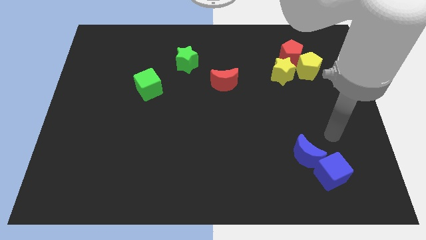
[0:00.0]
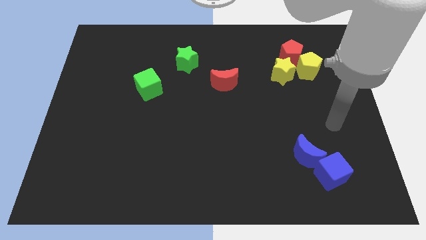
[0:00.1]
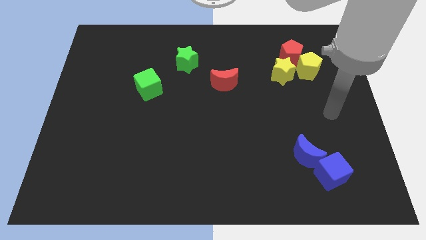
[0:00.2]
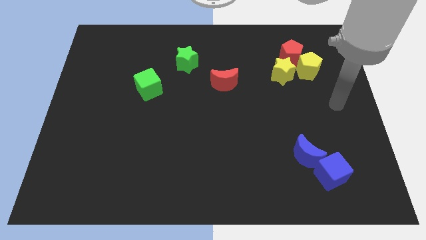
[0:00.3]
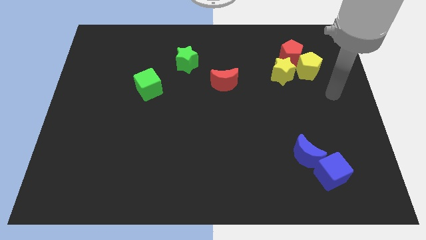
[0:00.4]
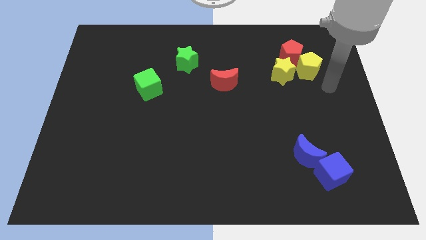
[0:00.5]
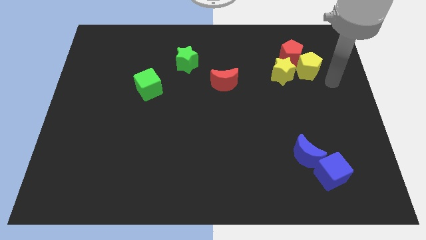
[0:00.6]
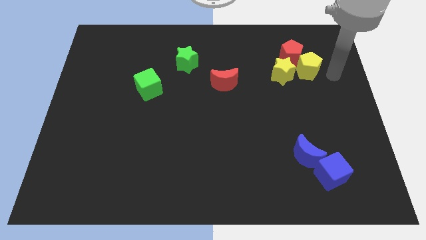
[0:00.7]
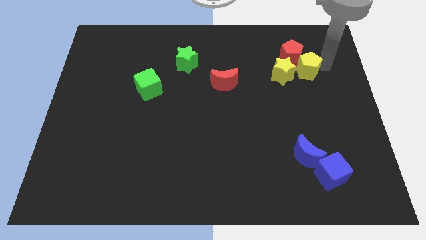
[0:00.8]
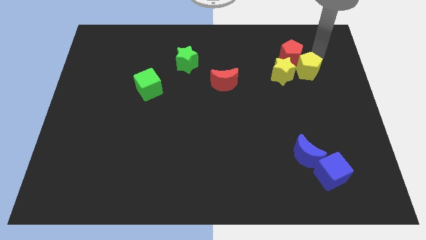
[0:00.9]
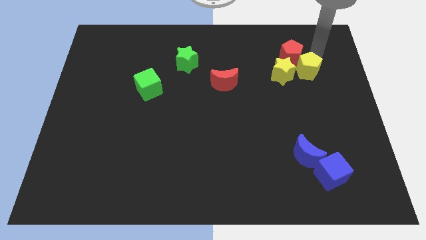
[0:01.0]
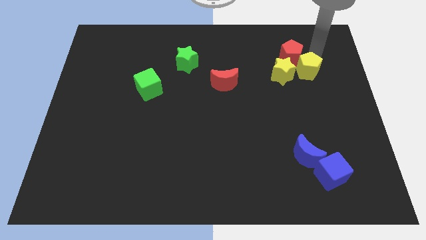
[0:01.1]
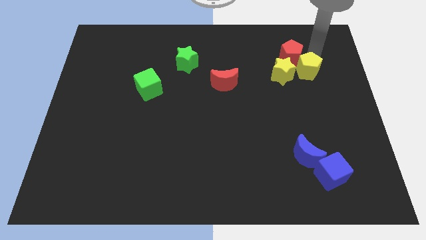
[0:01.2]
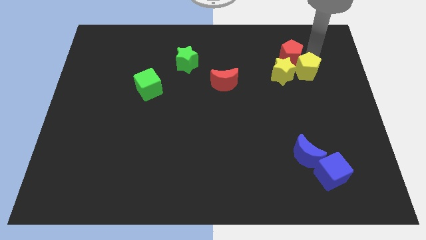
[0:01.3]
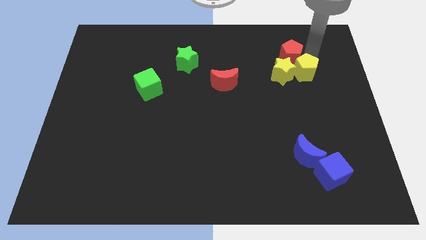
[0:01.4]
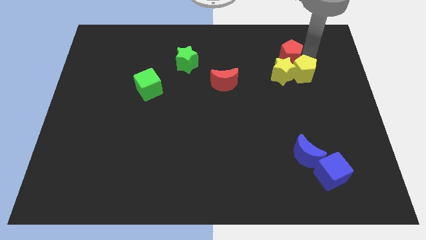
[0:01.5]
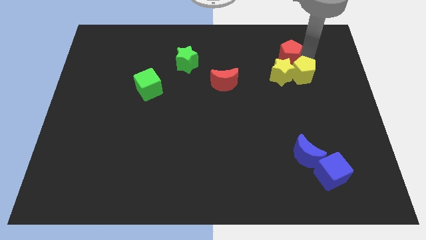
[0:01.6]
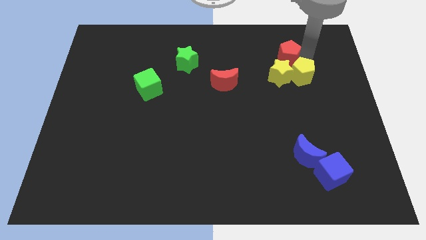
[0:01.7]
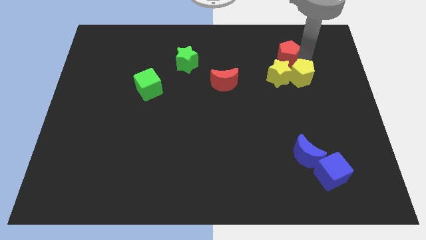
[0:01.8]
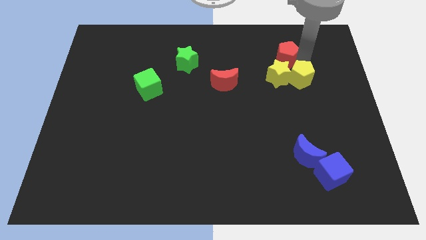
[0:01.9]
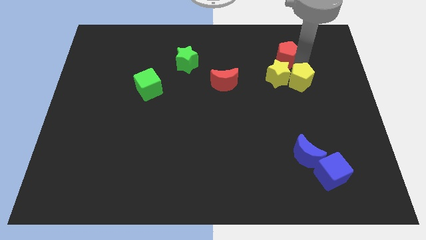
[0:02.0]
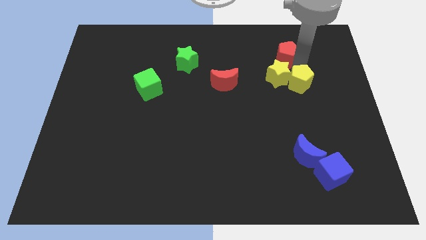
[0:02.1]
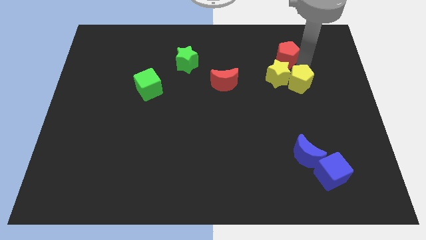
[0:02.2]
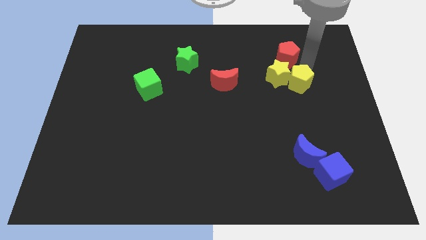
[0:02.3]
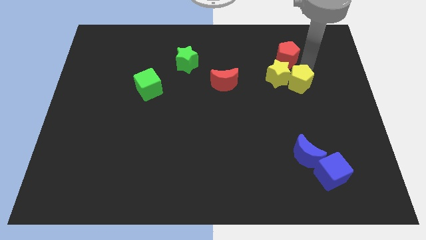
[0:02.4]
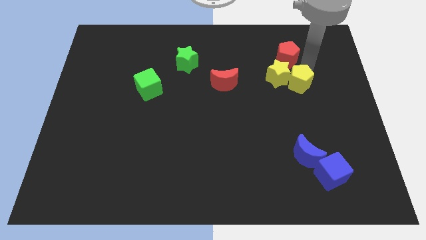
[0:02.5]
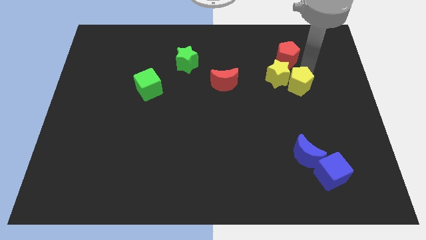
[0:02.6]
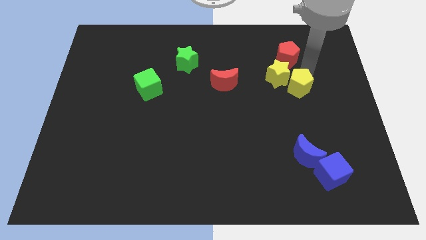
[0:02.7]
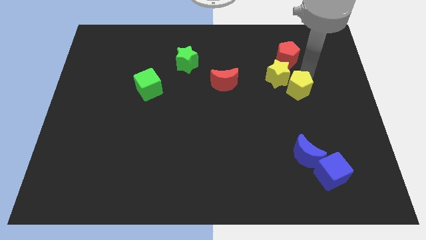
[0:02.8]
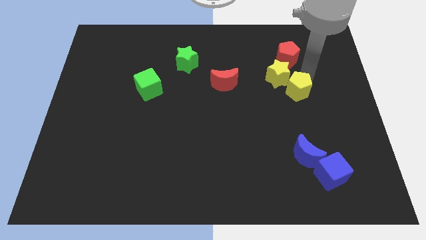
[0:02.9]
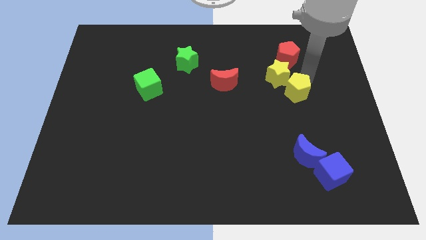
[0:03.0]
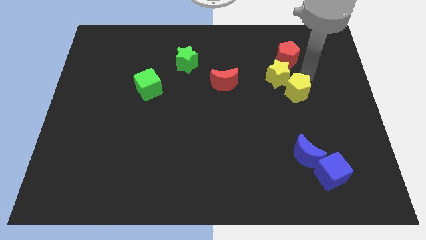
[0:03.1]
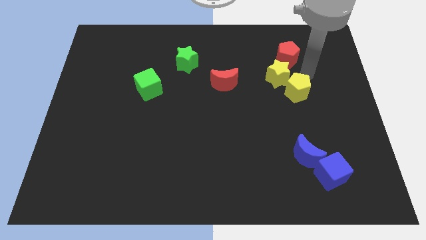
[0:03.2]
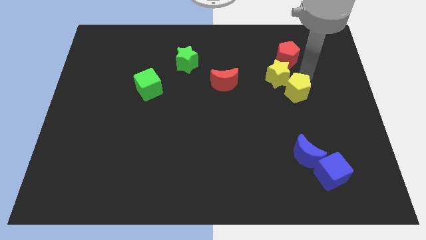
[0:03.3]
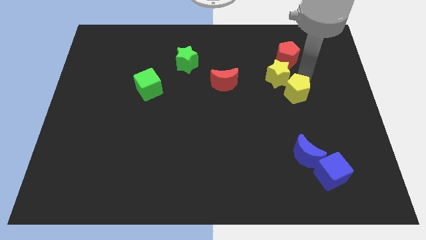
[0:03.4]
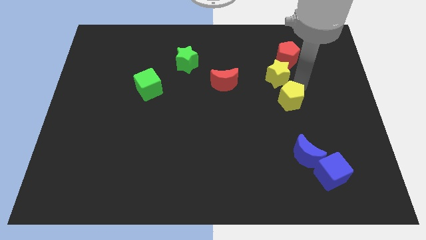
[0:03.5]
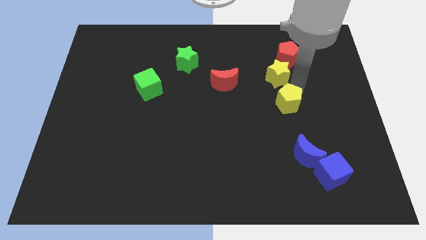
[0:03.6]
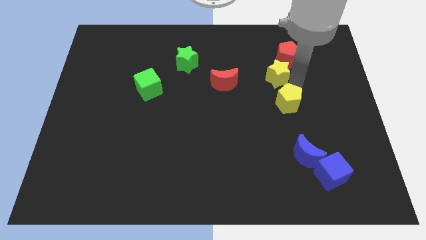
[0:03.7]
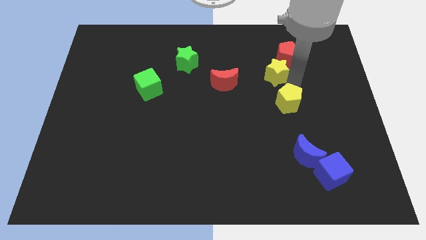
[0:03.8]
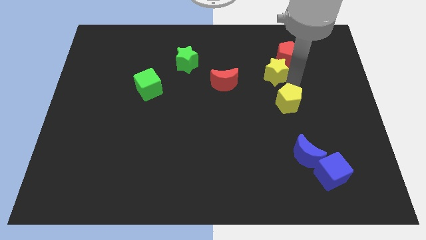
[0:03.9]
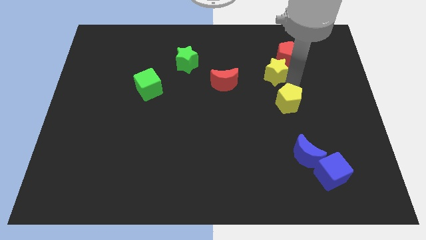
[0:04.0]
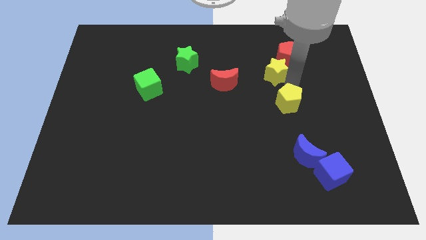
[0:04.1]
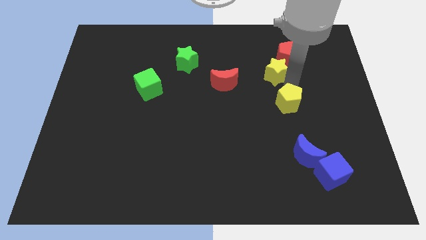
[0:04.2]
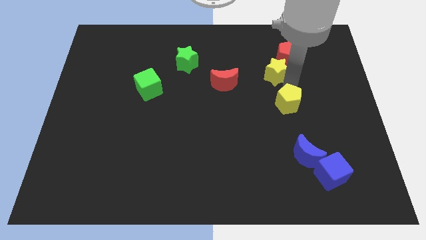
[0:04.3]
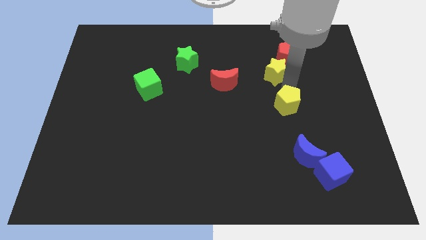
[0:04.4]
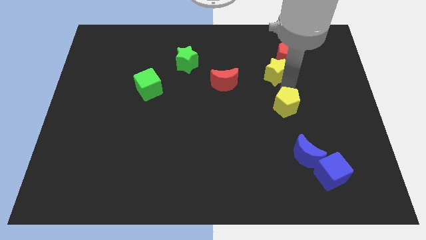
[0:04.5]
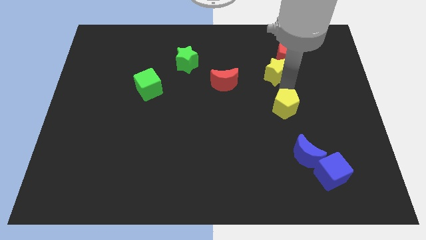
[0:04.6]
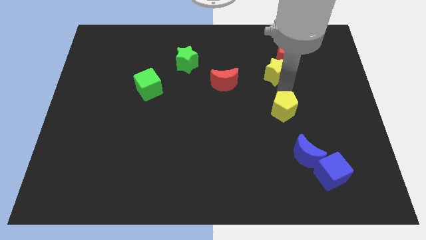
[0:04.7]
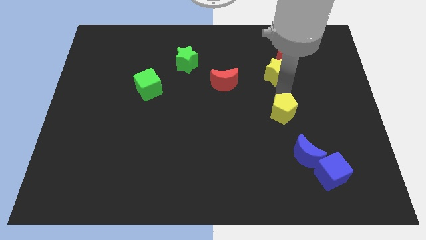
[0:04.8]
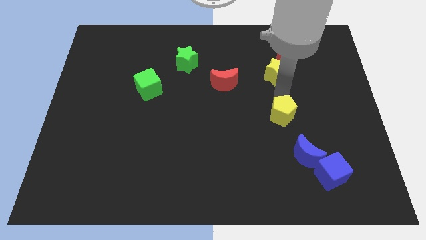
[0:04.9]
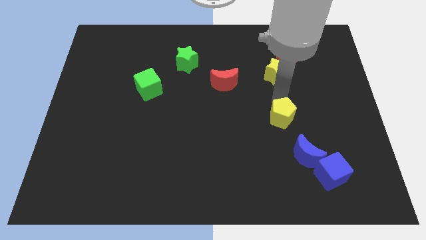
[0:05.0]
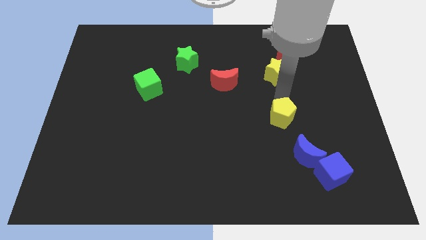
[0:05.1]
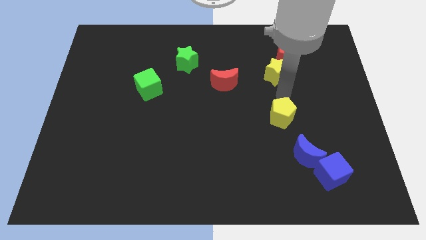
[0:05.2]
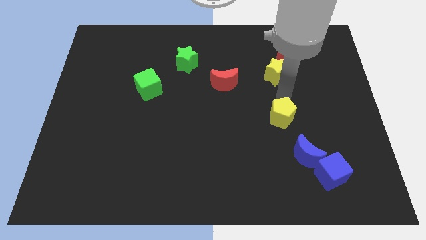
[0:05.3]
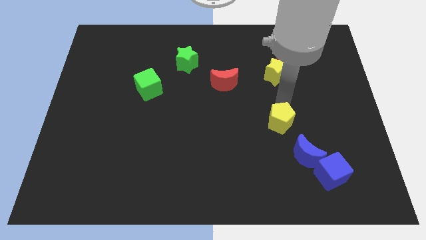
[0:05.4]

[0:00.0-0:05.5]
move the yellow pentagon to the top left of the blue moon

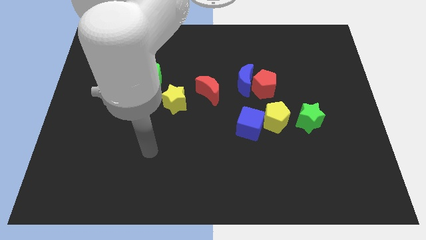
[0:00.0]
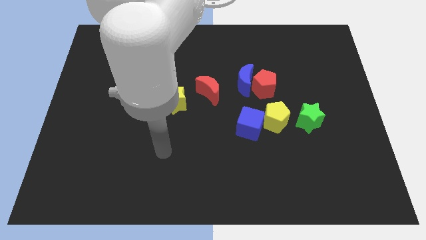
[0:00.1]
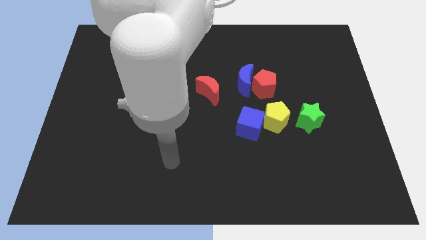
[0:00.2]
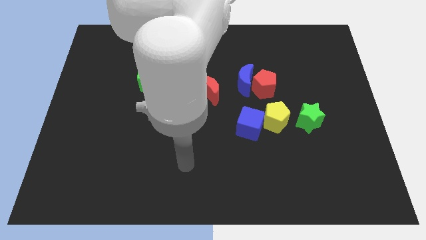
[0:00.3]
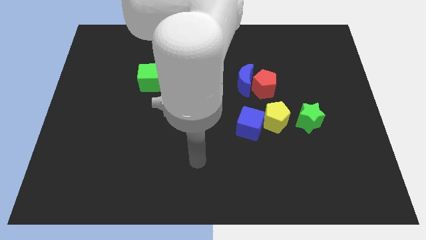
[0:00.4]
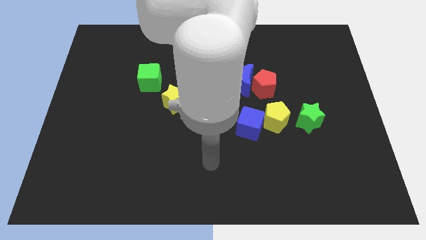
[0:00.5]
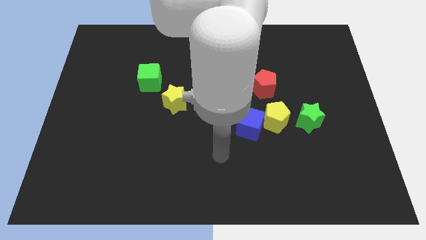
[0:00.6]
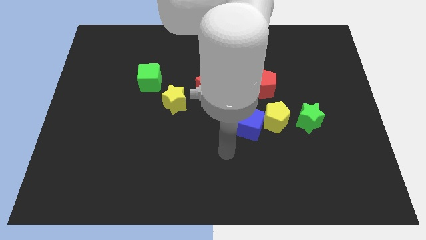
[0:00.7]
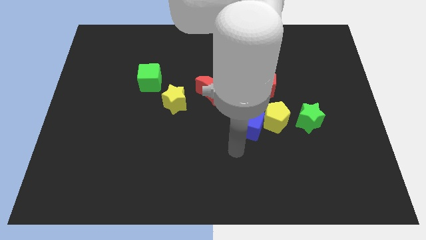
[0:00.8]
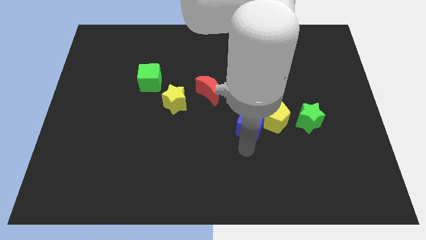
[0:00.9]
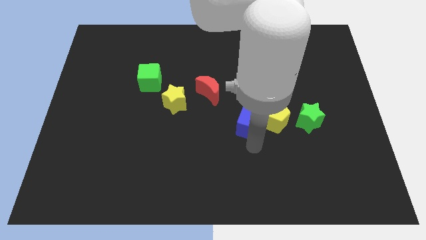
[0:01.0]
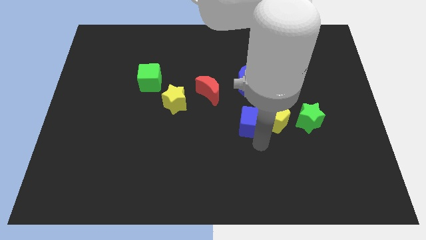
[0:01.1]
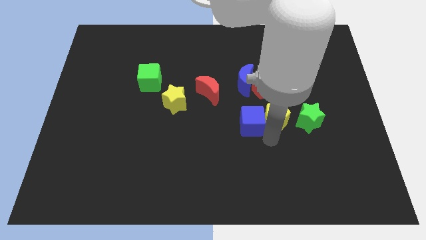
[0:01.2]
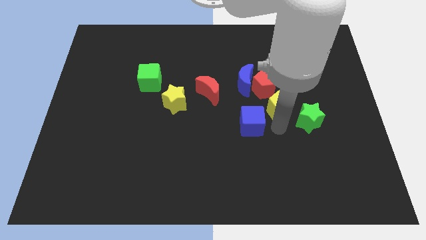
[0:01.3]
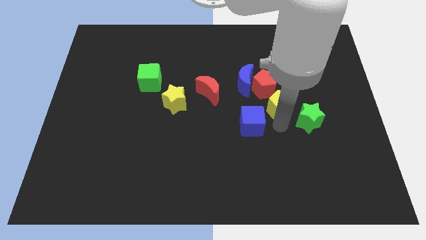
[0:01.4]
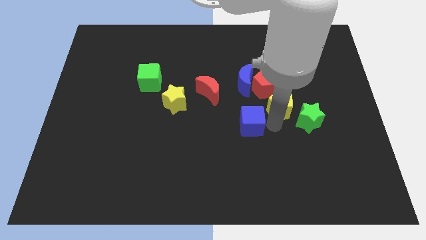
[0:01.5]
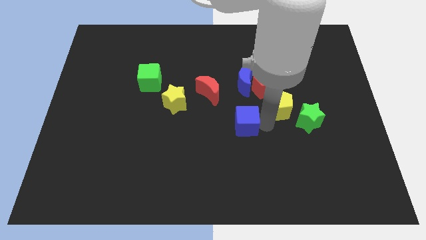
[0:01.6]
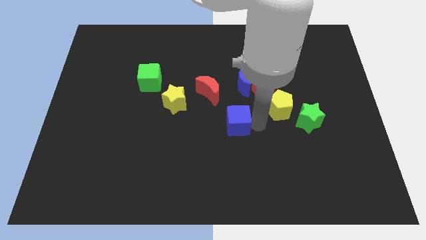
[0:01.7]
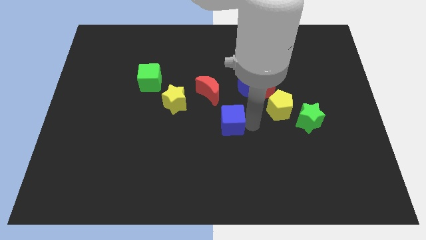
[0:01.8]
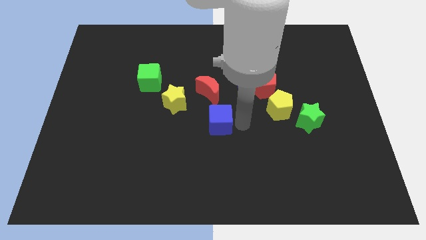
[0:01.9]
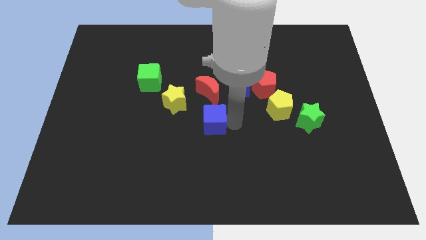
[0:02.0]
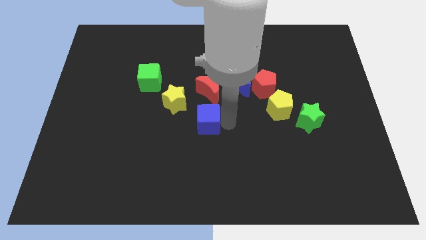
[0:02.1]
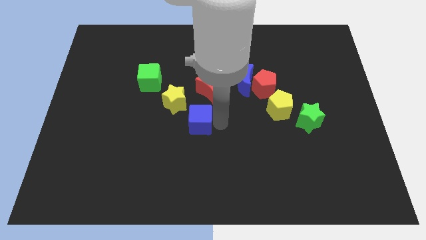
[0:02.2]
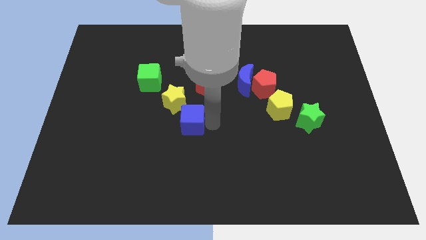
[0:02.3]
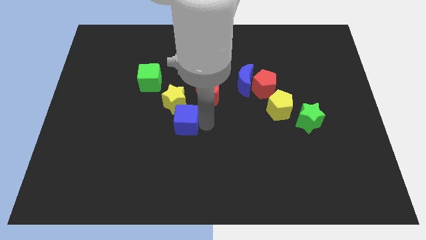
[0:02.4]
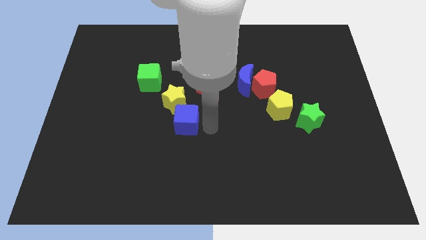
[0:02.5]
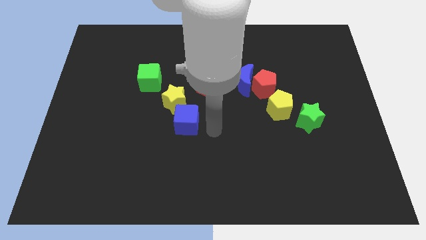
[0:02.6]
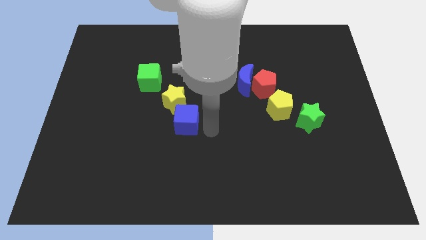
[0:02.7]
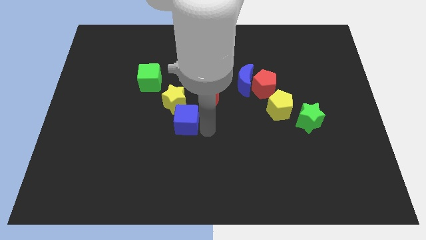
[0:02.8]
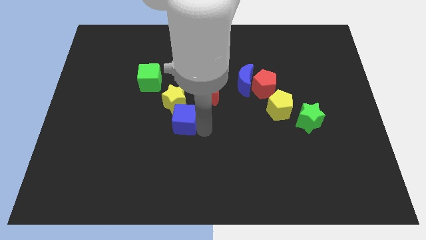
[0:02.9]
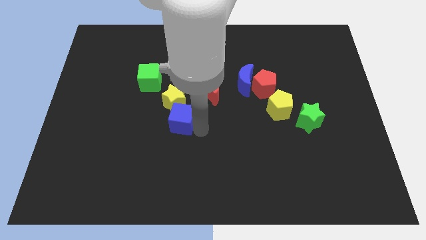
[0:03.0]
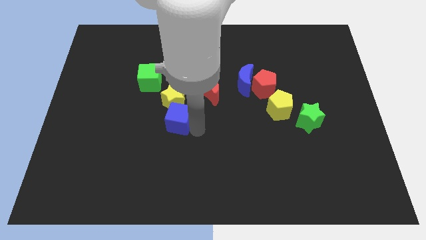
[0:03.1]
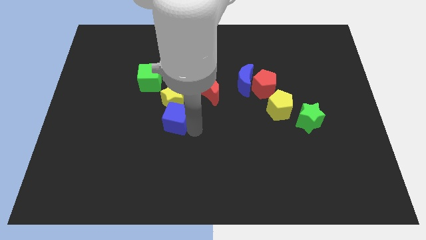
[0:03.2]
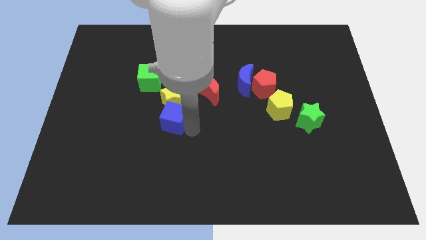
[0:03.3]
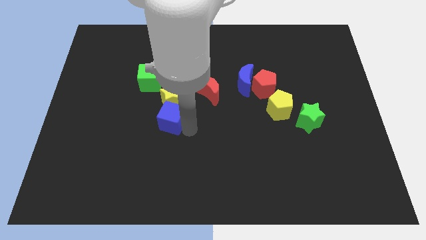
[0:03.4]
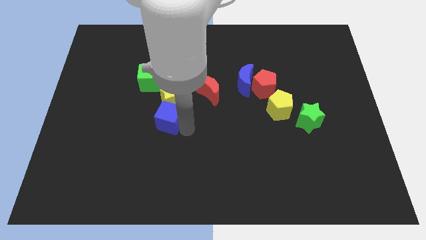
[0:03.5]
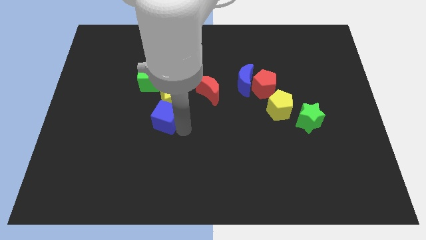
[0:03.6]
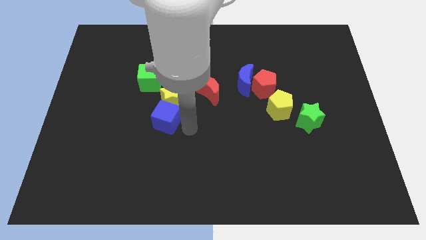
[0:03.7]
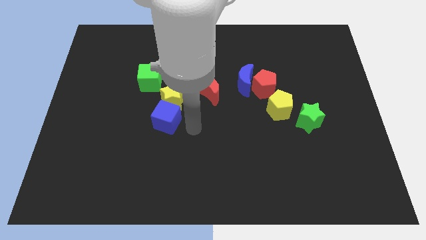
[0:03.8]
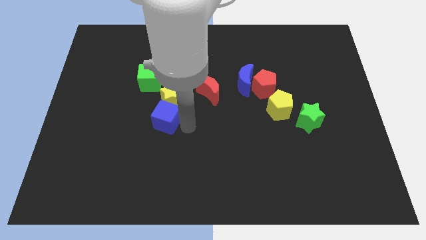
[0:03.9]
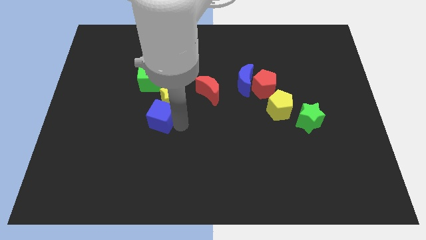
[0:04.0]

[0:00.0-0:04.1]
slide the blue cube to the bottom side of the green cube
